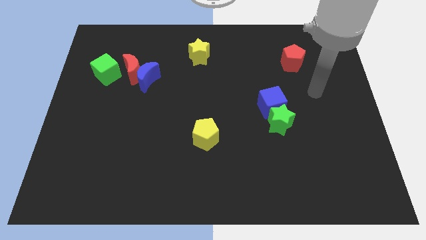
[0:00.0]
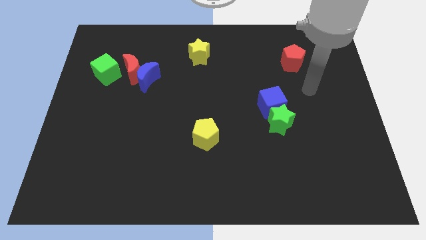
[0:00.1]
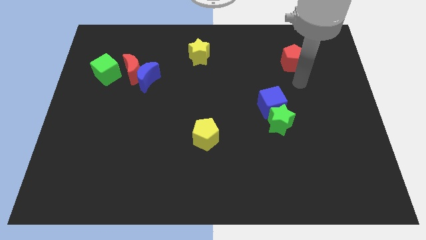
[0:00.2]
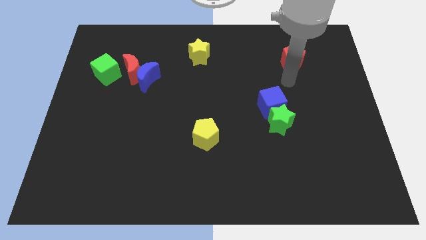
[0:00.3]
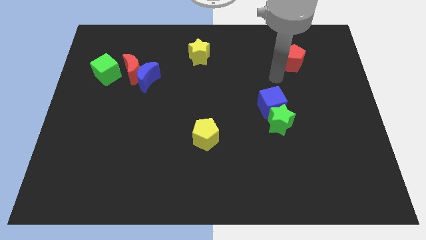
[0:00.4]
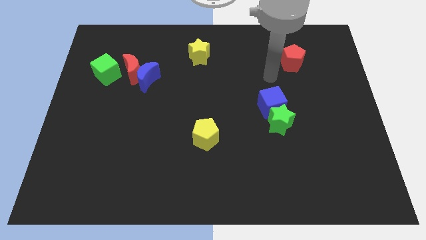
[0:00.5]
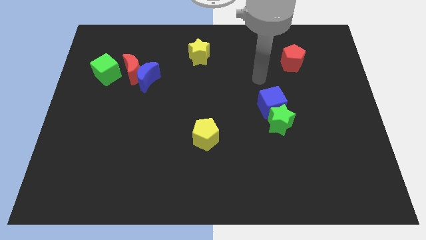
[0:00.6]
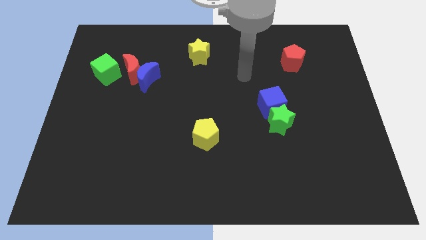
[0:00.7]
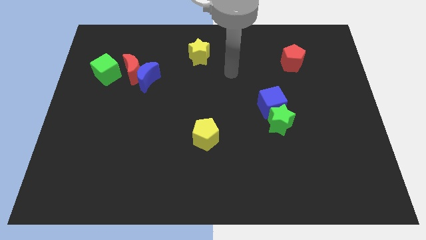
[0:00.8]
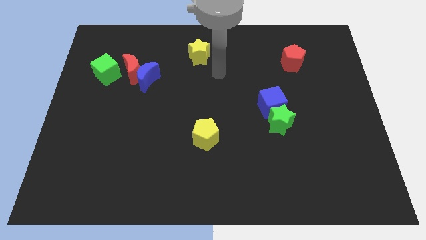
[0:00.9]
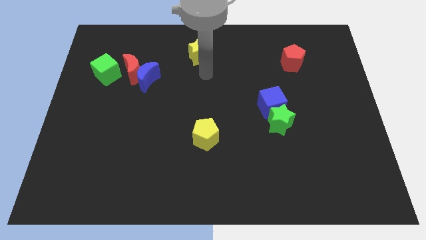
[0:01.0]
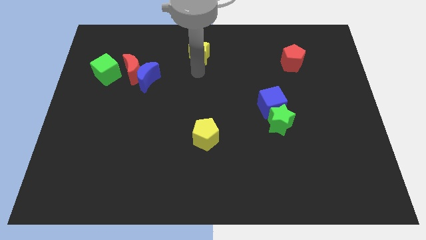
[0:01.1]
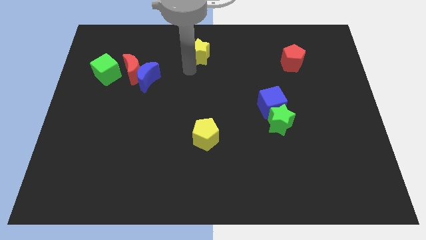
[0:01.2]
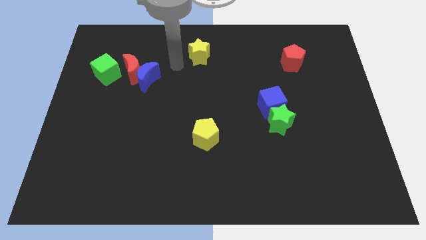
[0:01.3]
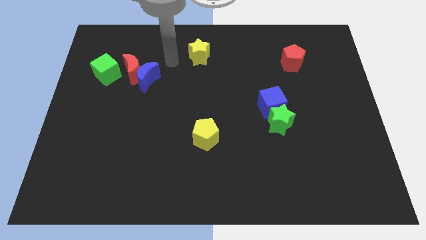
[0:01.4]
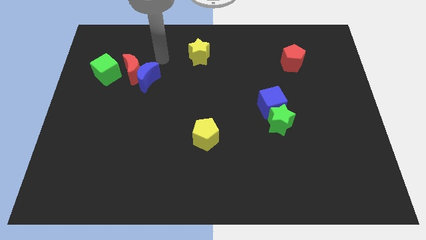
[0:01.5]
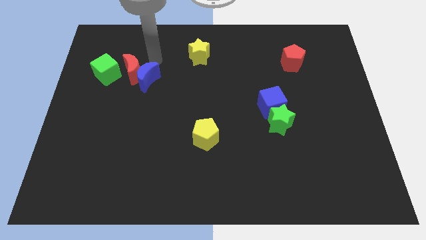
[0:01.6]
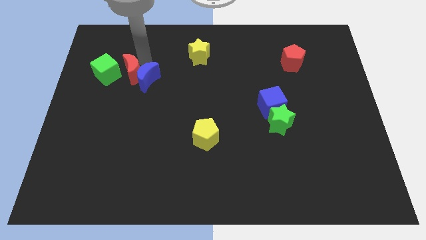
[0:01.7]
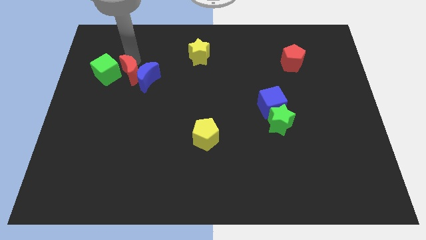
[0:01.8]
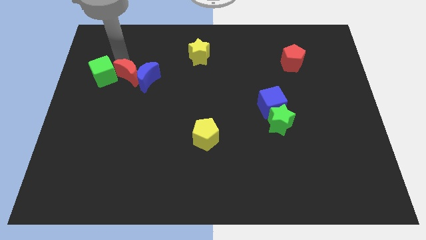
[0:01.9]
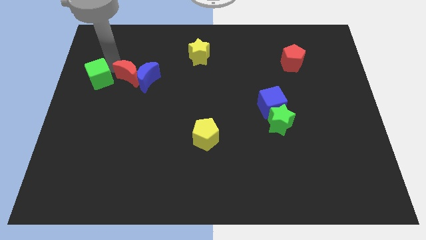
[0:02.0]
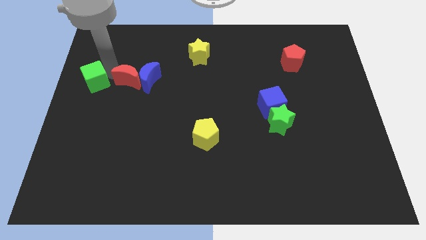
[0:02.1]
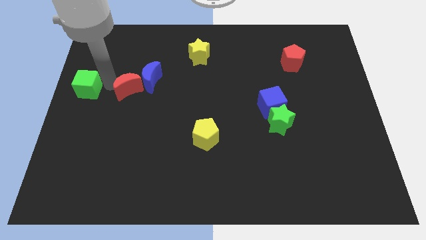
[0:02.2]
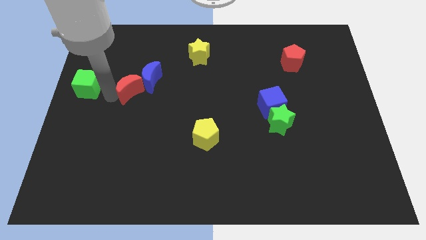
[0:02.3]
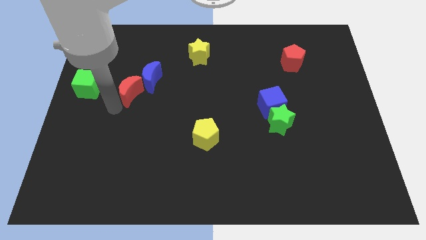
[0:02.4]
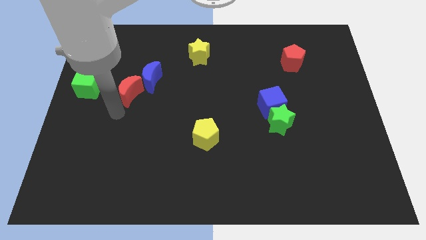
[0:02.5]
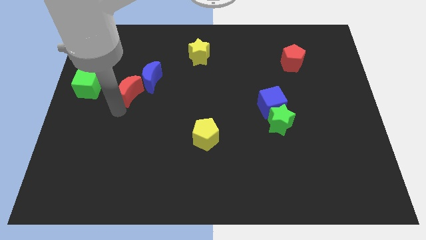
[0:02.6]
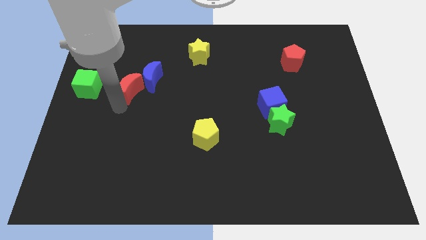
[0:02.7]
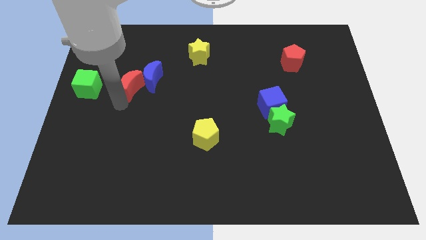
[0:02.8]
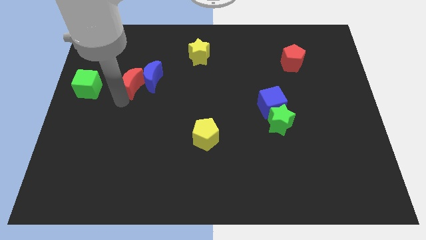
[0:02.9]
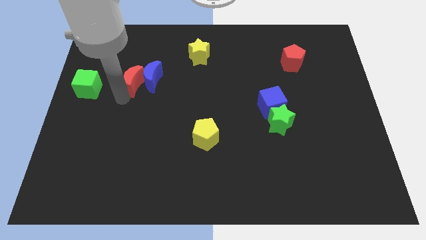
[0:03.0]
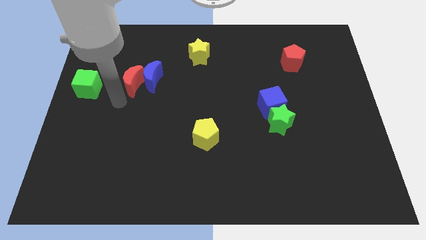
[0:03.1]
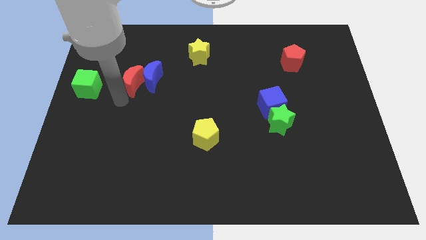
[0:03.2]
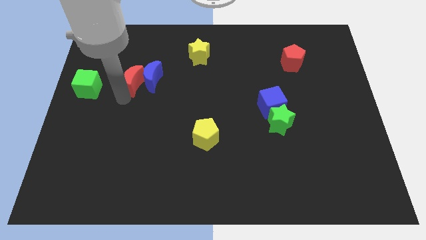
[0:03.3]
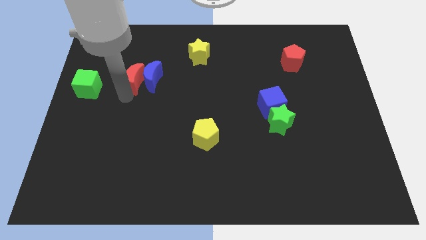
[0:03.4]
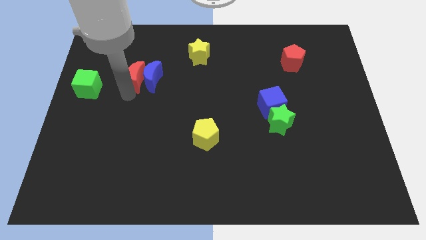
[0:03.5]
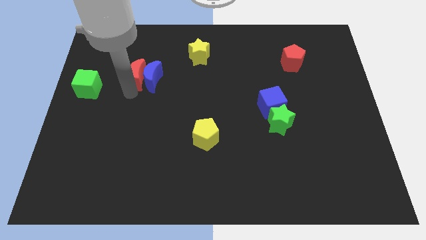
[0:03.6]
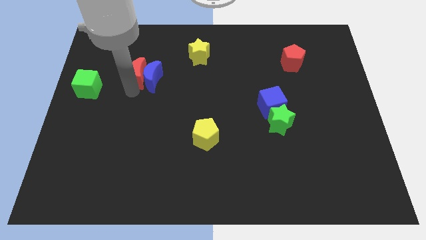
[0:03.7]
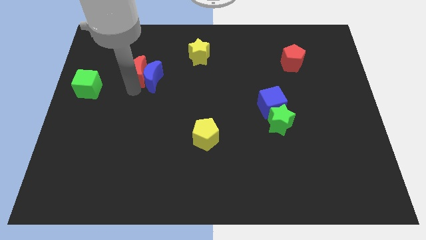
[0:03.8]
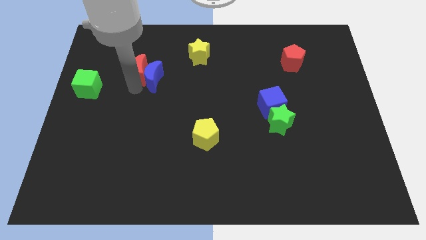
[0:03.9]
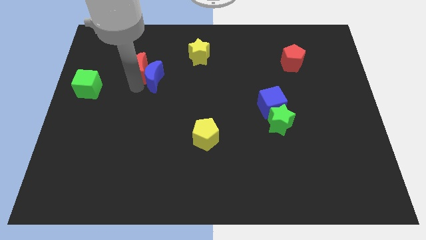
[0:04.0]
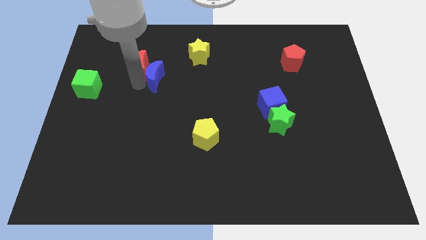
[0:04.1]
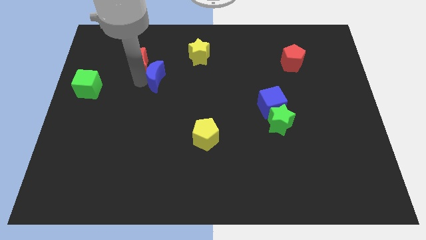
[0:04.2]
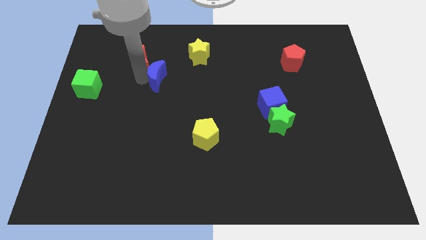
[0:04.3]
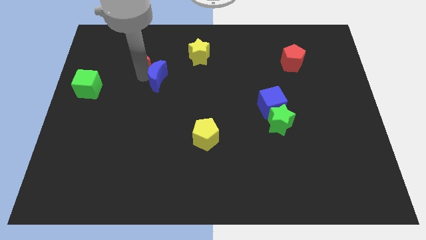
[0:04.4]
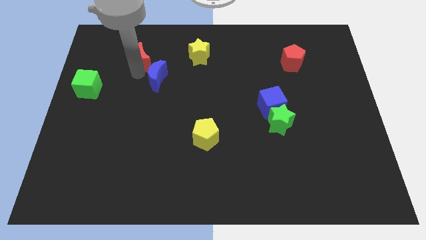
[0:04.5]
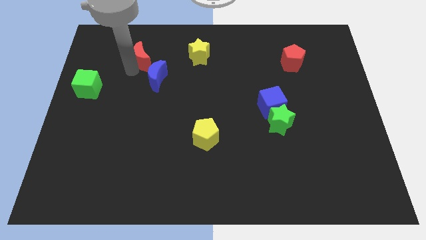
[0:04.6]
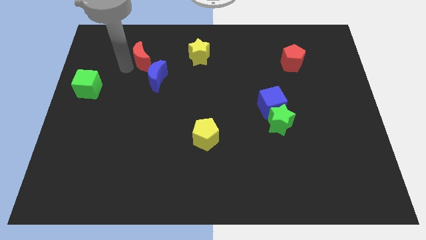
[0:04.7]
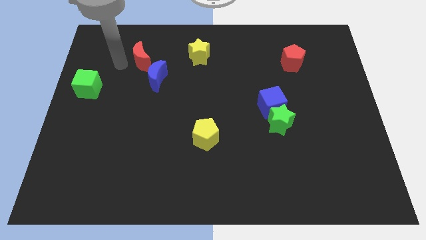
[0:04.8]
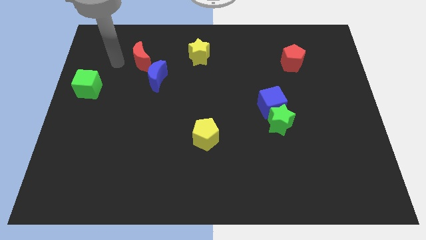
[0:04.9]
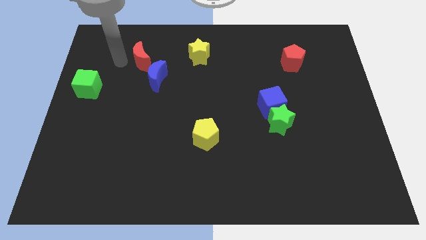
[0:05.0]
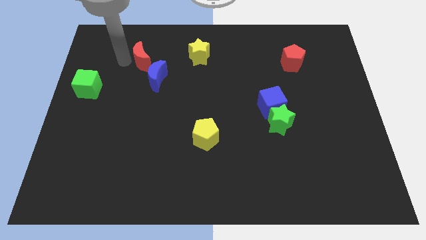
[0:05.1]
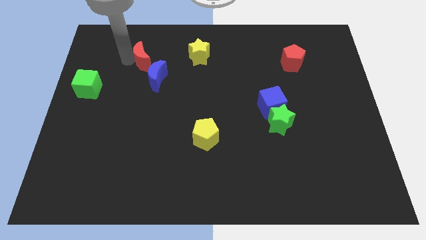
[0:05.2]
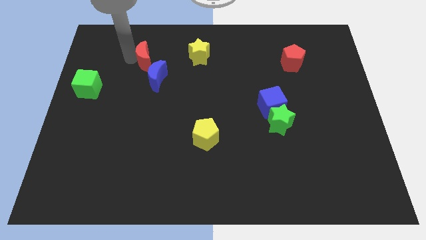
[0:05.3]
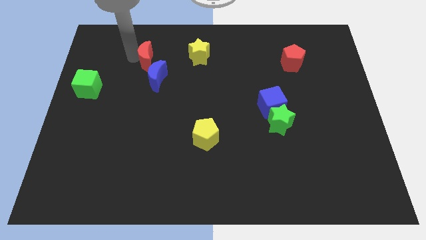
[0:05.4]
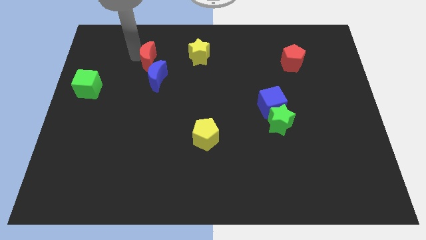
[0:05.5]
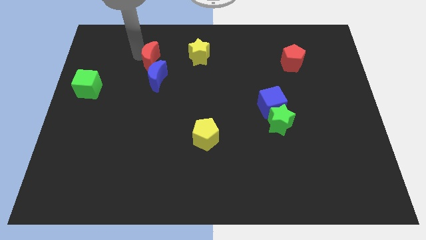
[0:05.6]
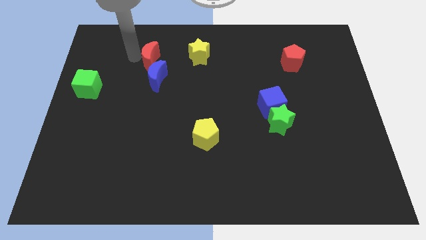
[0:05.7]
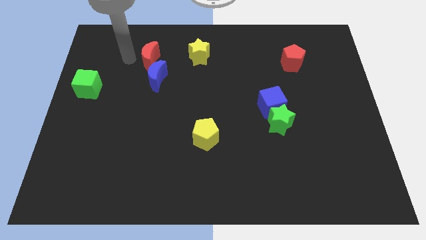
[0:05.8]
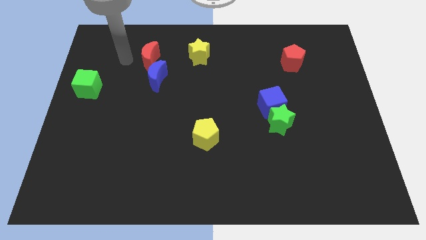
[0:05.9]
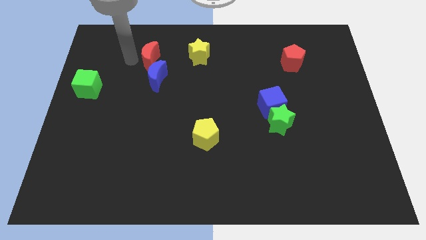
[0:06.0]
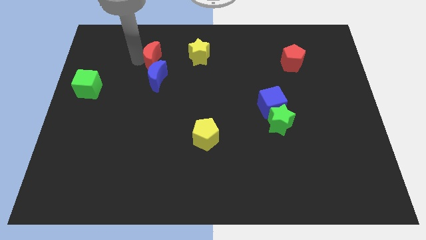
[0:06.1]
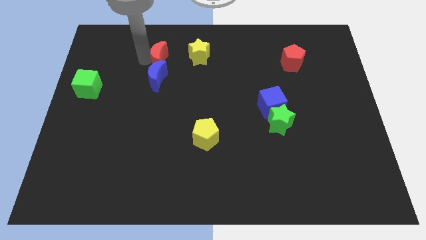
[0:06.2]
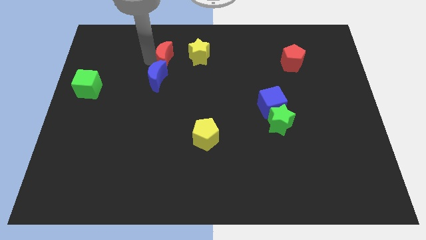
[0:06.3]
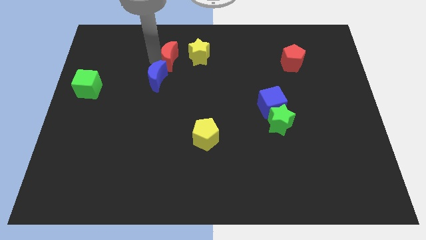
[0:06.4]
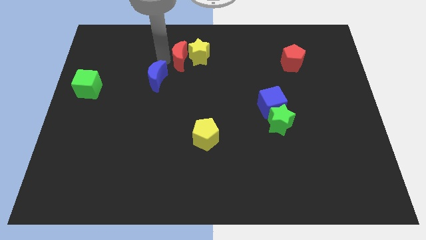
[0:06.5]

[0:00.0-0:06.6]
push the red moon towards the yellow star

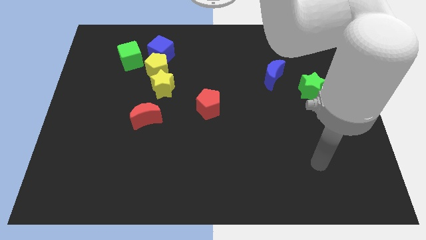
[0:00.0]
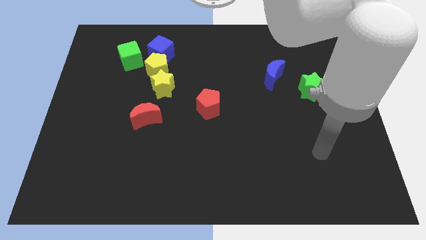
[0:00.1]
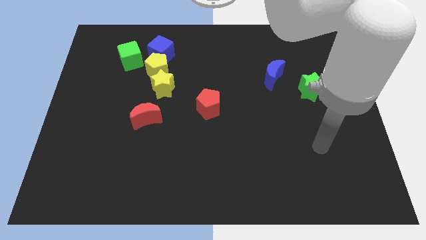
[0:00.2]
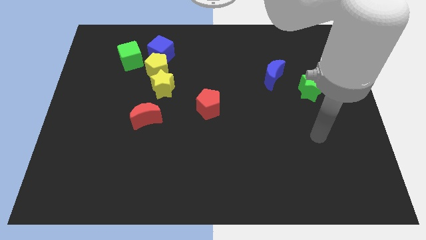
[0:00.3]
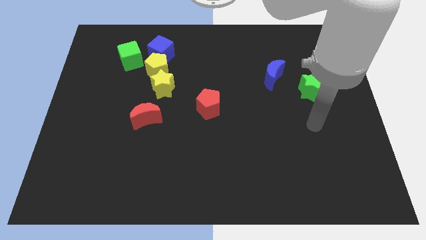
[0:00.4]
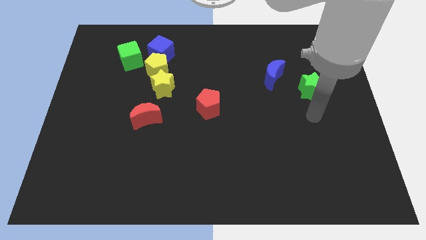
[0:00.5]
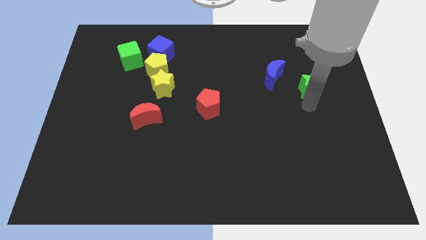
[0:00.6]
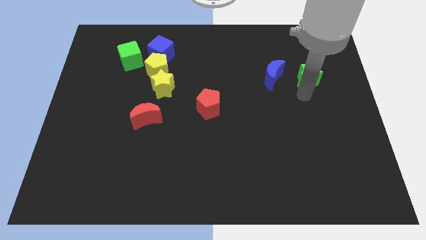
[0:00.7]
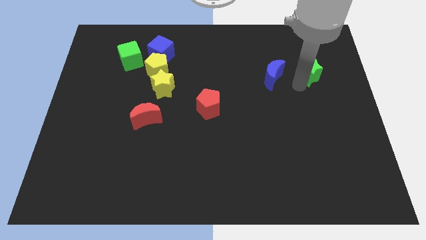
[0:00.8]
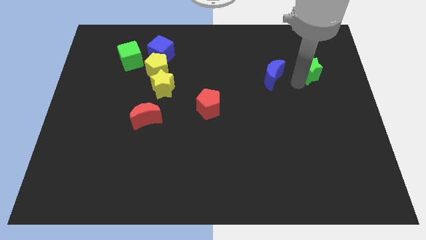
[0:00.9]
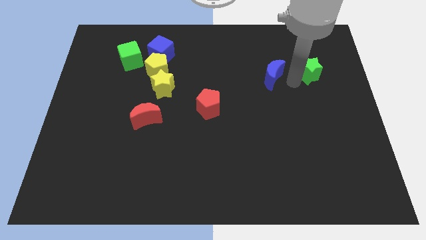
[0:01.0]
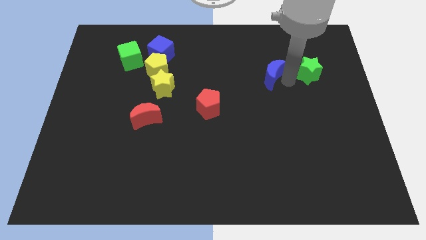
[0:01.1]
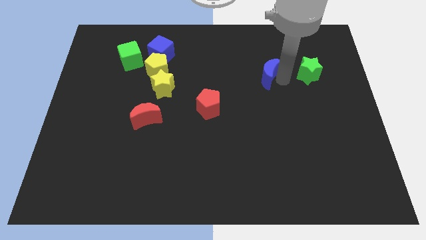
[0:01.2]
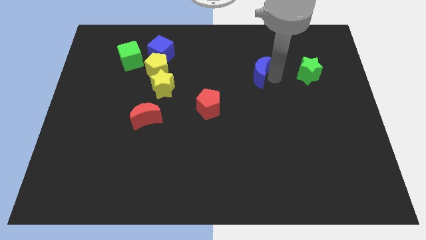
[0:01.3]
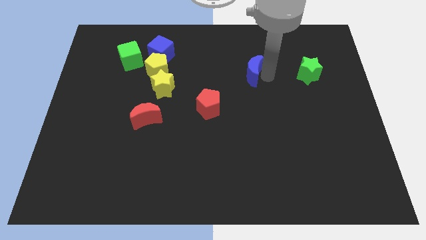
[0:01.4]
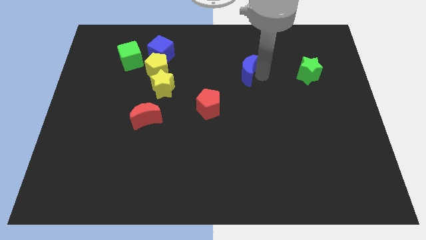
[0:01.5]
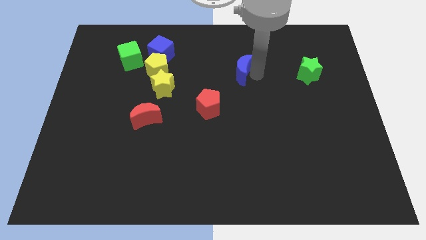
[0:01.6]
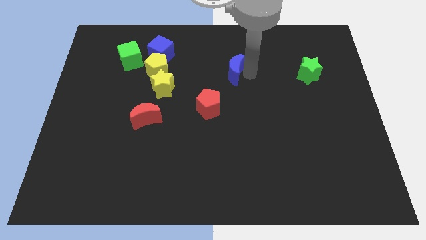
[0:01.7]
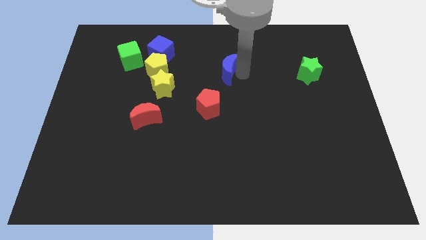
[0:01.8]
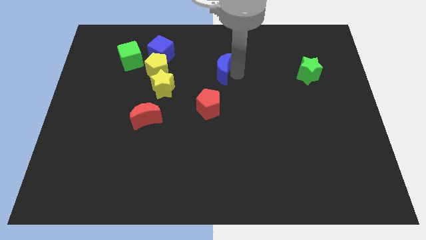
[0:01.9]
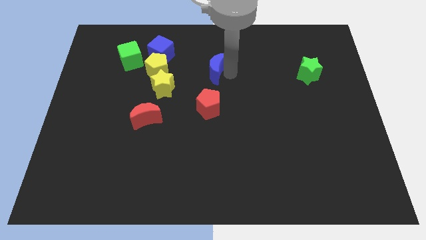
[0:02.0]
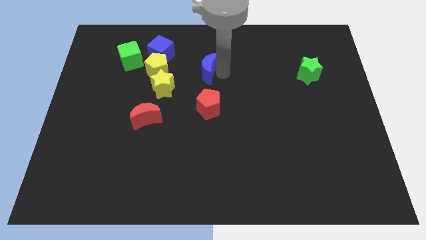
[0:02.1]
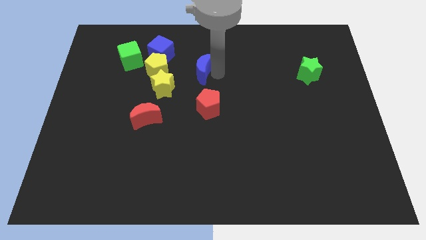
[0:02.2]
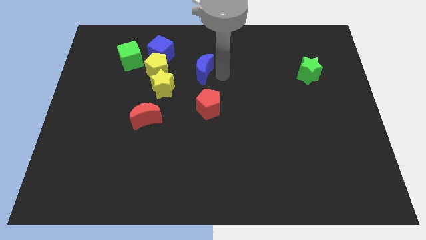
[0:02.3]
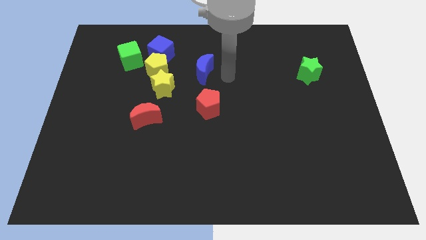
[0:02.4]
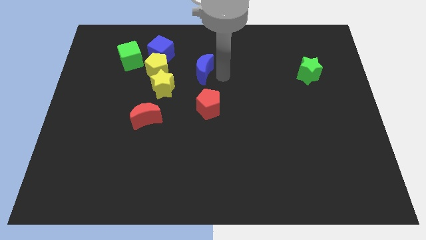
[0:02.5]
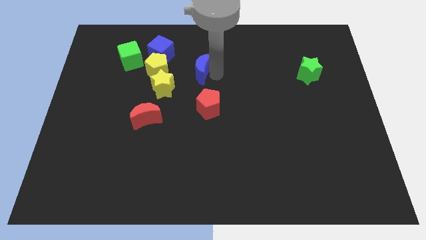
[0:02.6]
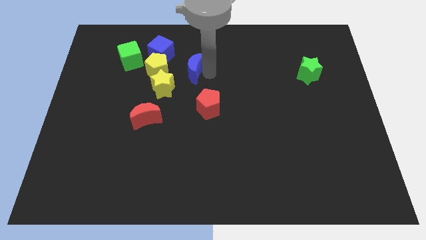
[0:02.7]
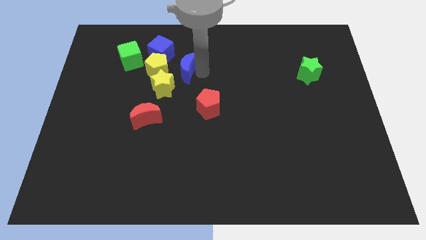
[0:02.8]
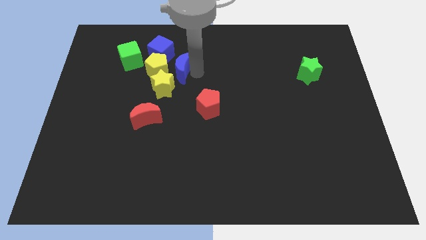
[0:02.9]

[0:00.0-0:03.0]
move the blue moon towards the yellow pentagon
